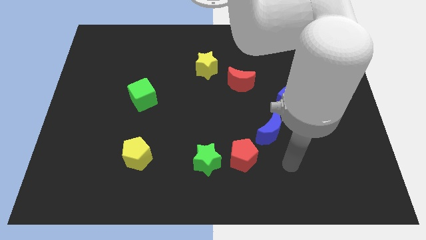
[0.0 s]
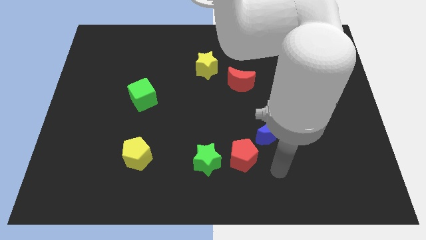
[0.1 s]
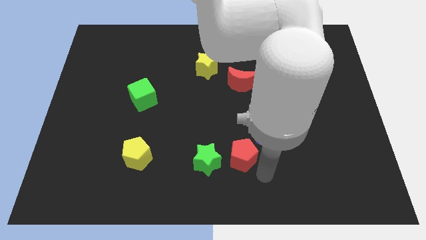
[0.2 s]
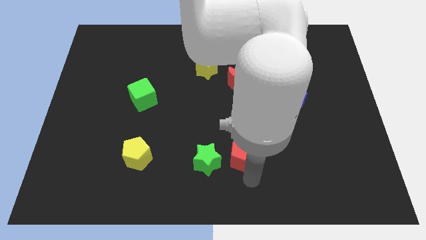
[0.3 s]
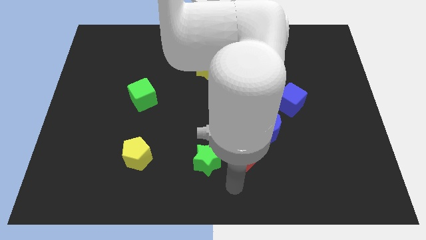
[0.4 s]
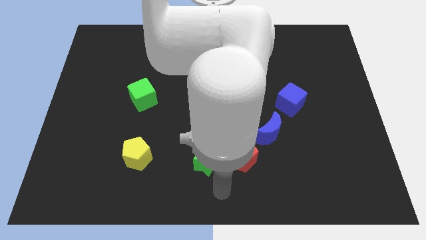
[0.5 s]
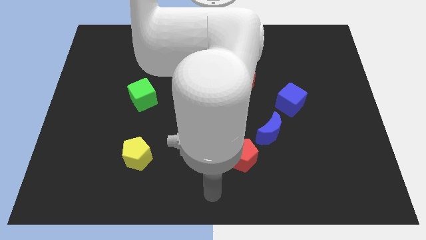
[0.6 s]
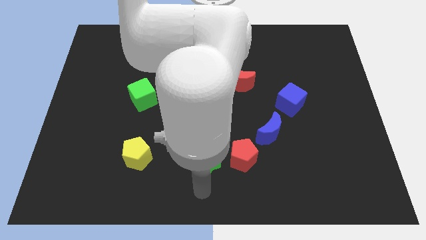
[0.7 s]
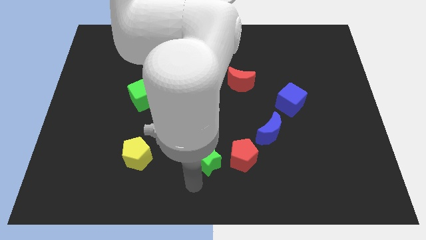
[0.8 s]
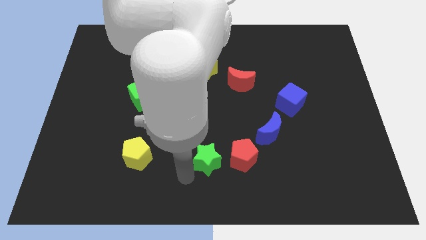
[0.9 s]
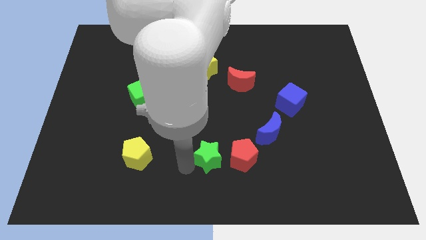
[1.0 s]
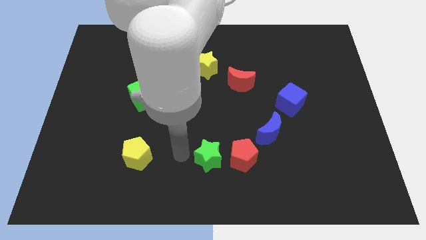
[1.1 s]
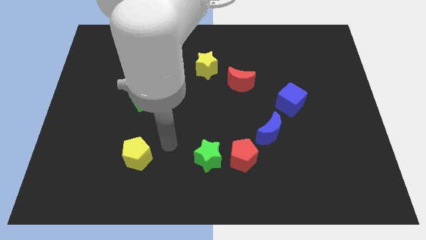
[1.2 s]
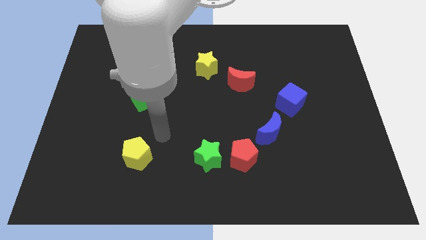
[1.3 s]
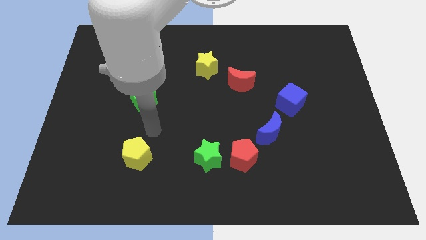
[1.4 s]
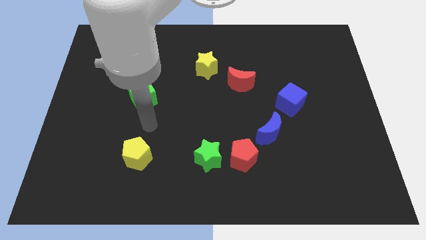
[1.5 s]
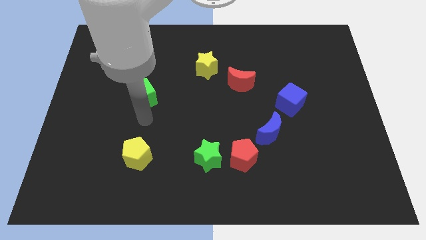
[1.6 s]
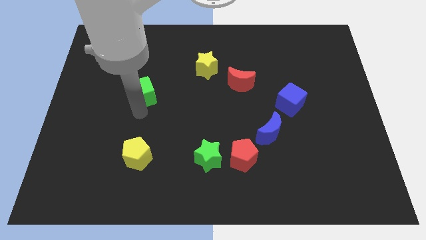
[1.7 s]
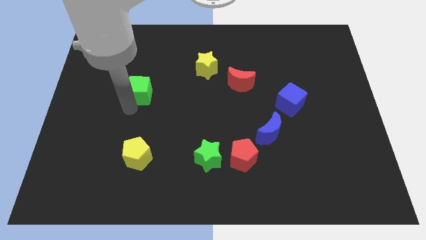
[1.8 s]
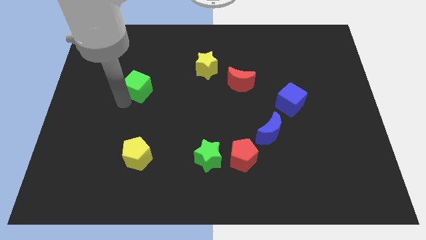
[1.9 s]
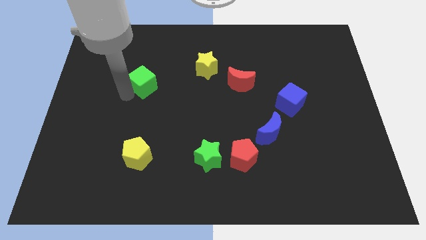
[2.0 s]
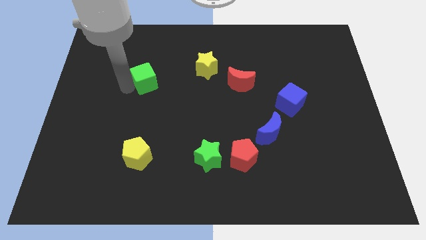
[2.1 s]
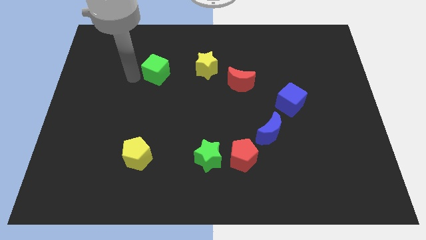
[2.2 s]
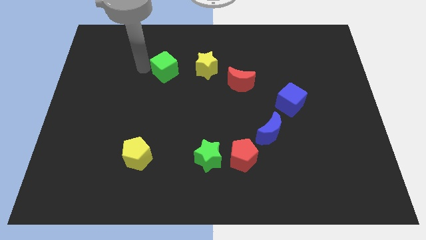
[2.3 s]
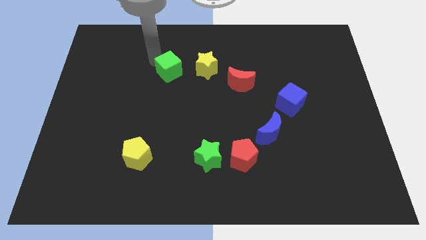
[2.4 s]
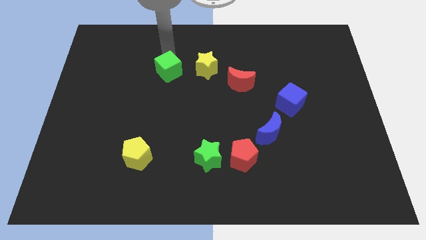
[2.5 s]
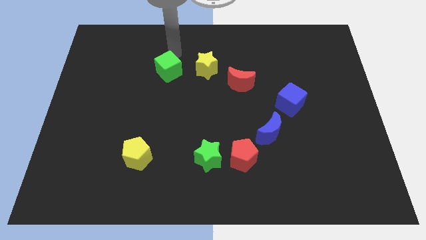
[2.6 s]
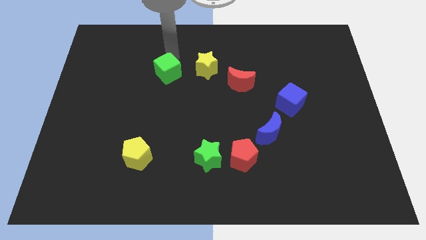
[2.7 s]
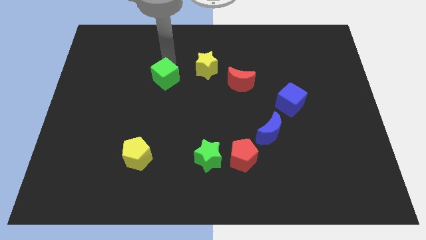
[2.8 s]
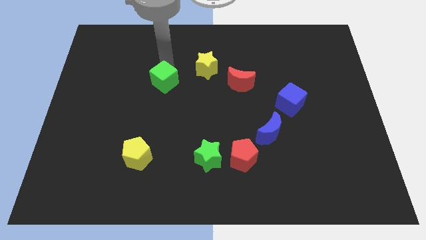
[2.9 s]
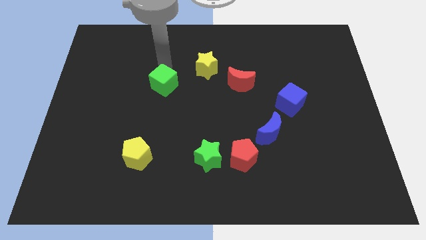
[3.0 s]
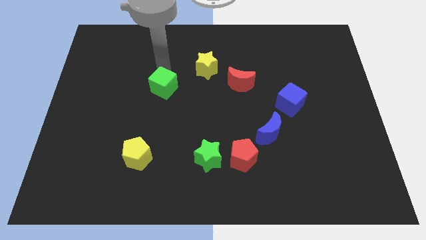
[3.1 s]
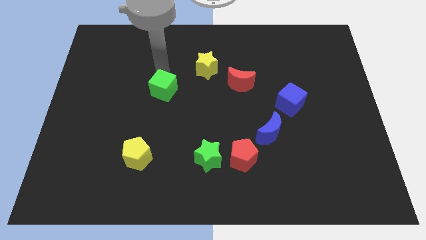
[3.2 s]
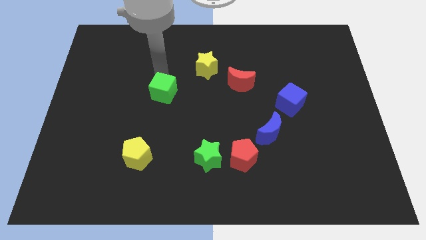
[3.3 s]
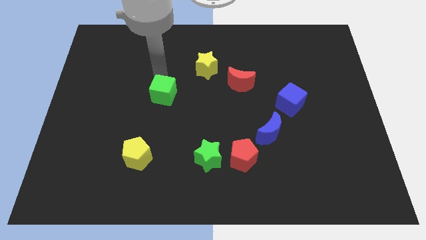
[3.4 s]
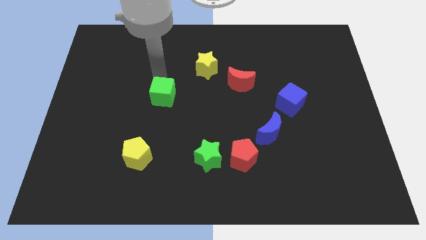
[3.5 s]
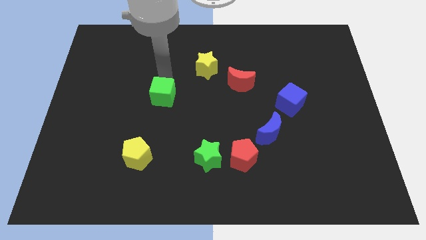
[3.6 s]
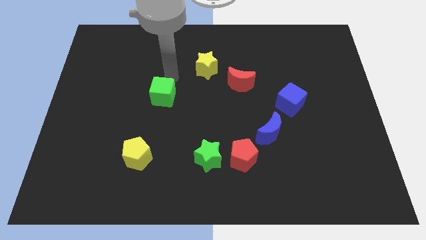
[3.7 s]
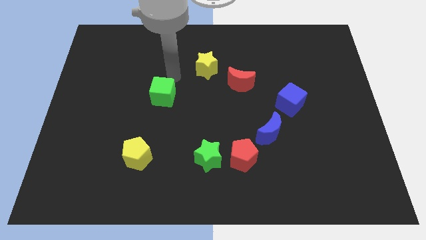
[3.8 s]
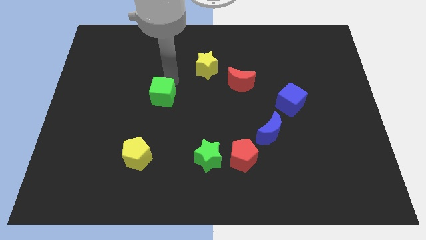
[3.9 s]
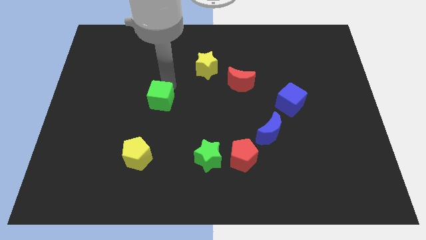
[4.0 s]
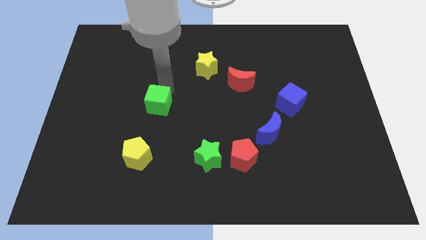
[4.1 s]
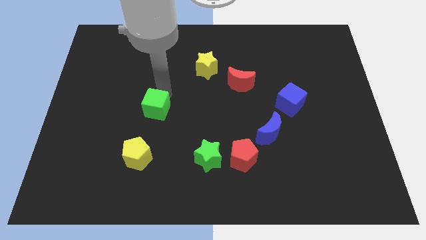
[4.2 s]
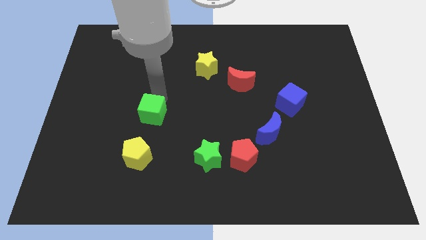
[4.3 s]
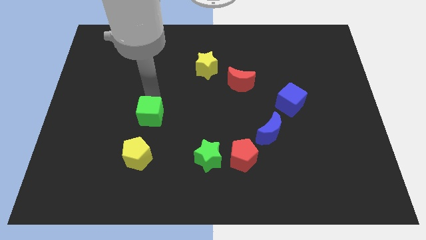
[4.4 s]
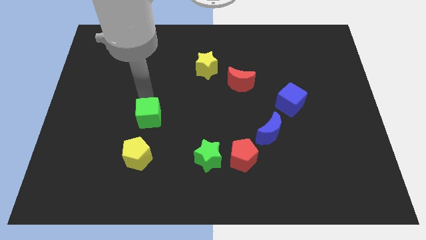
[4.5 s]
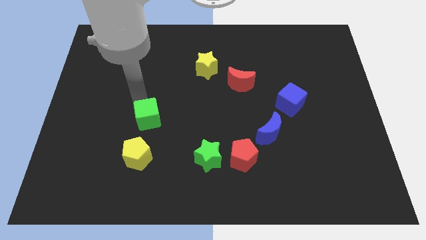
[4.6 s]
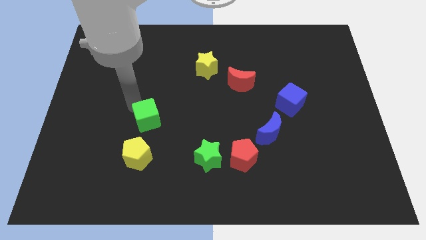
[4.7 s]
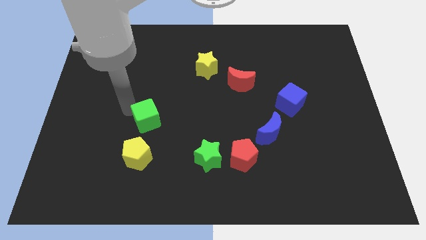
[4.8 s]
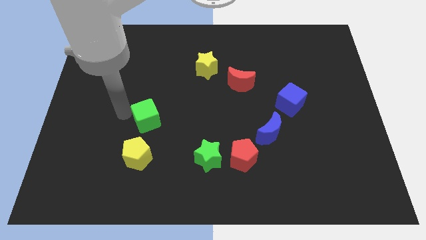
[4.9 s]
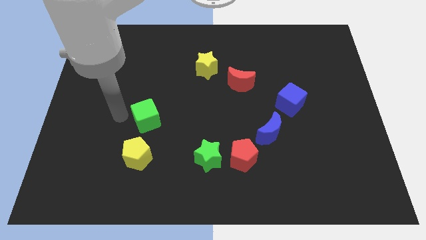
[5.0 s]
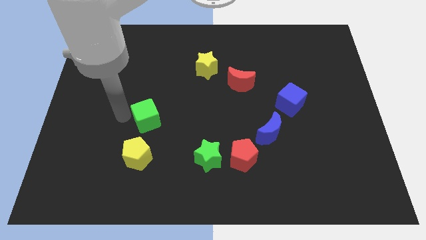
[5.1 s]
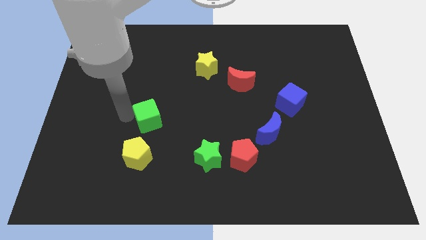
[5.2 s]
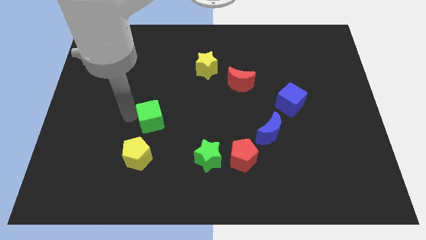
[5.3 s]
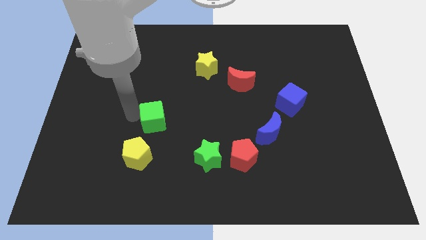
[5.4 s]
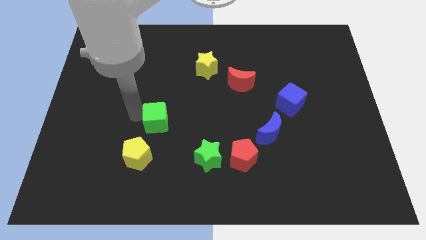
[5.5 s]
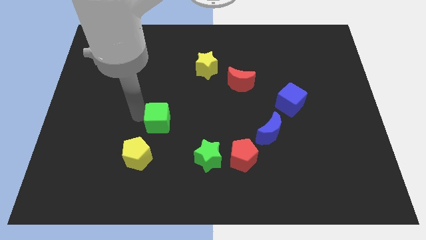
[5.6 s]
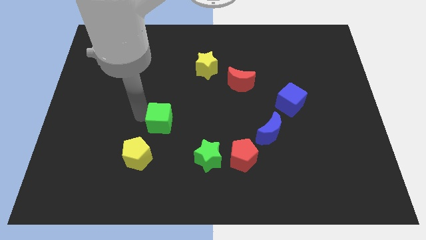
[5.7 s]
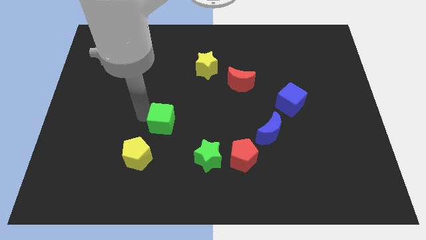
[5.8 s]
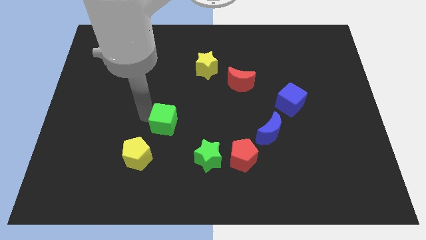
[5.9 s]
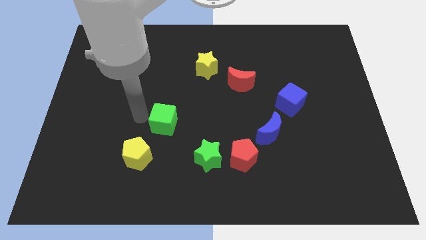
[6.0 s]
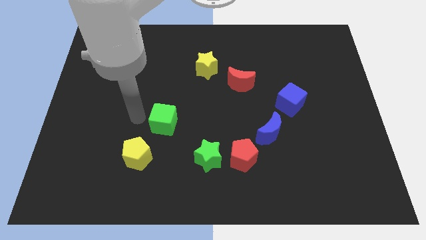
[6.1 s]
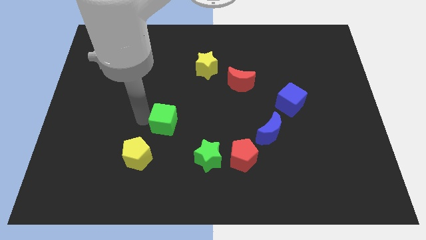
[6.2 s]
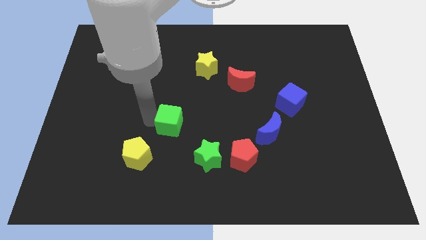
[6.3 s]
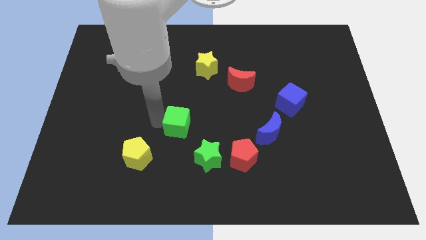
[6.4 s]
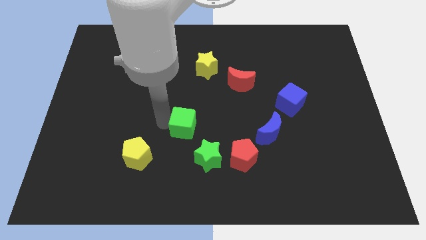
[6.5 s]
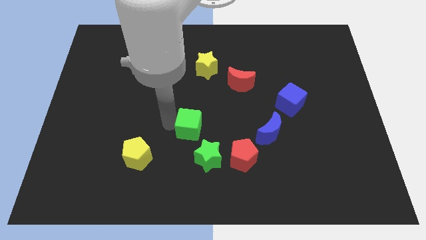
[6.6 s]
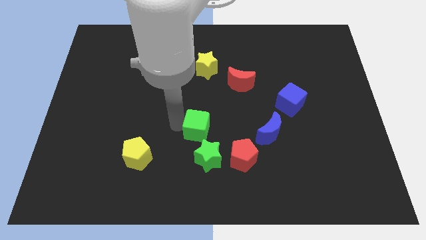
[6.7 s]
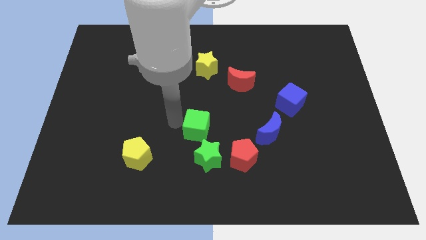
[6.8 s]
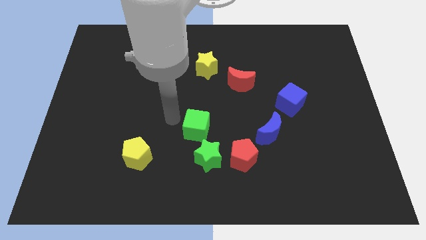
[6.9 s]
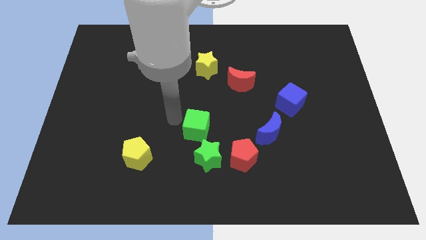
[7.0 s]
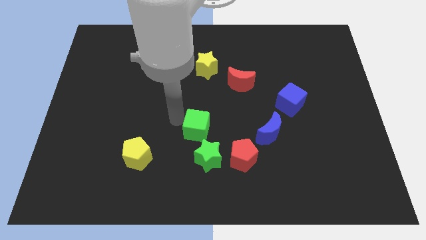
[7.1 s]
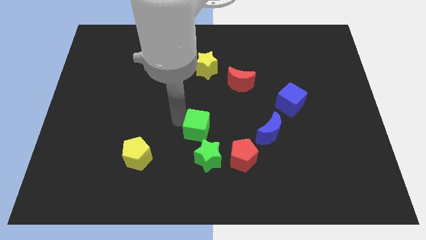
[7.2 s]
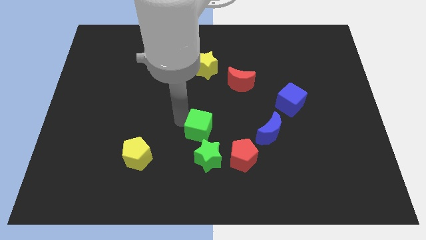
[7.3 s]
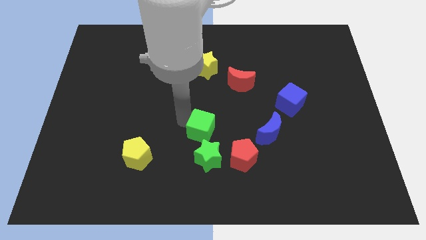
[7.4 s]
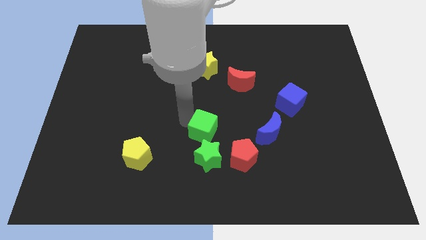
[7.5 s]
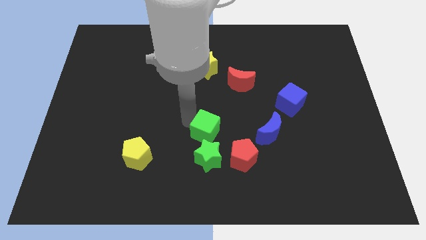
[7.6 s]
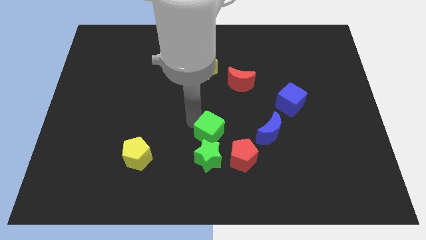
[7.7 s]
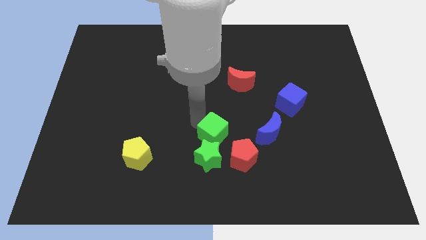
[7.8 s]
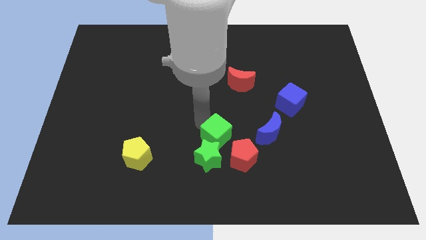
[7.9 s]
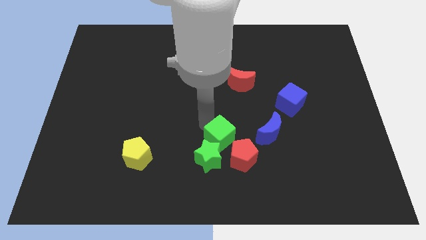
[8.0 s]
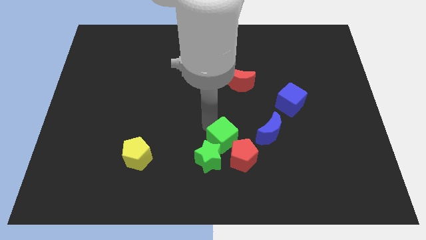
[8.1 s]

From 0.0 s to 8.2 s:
push the green cube to the red pentagon
